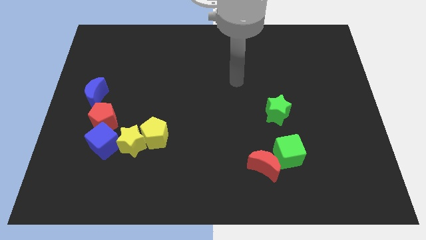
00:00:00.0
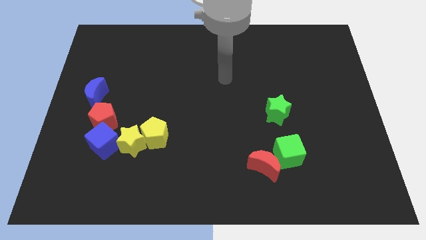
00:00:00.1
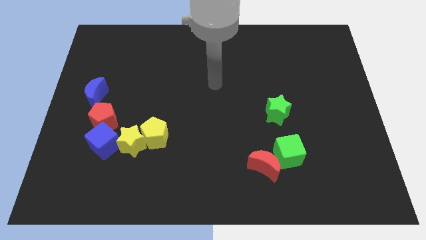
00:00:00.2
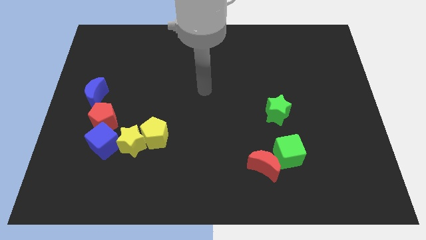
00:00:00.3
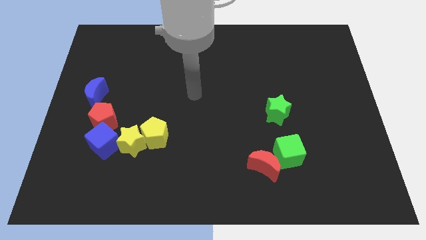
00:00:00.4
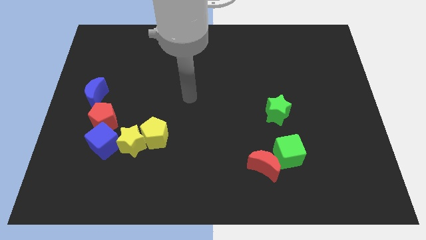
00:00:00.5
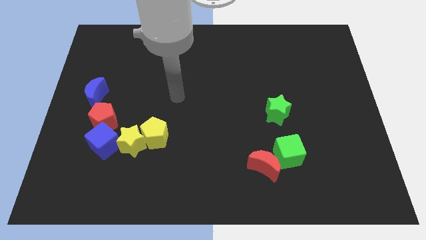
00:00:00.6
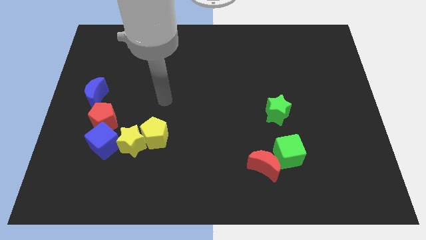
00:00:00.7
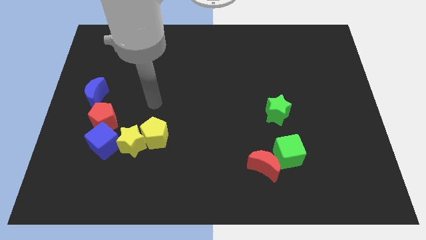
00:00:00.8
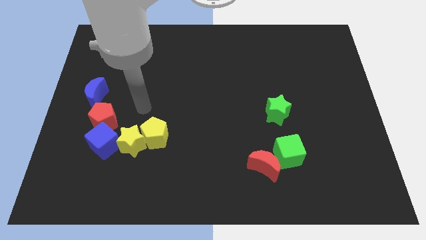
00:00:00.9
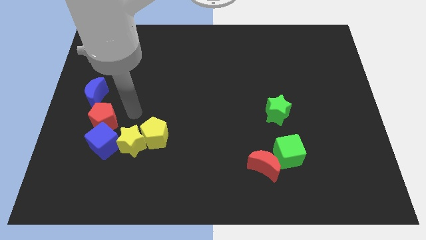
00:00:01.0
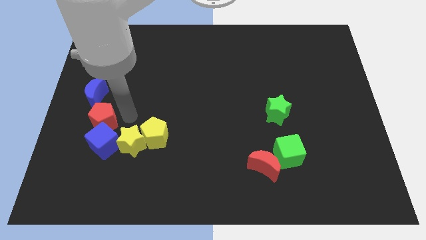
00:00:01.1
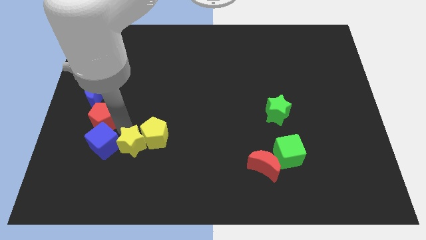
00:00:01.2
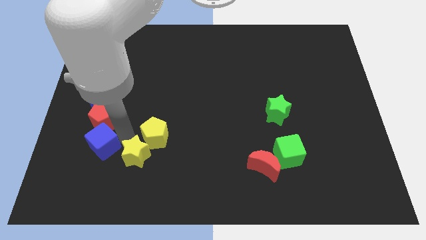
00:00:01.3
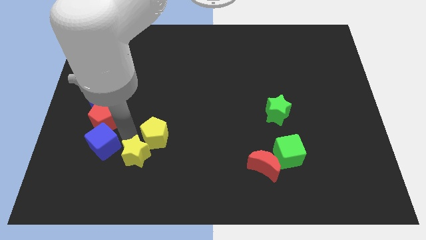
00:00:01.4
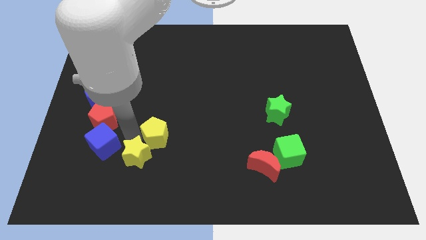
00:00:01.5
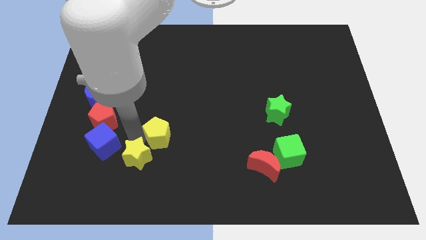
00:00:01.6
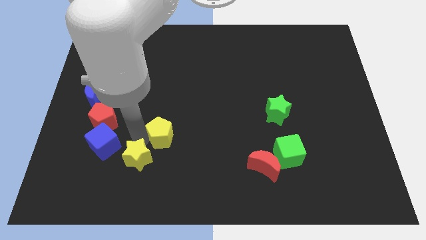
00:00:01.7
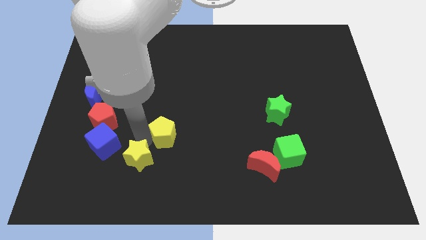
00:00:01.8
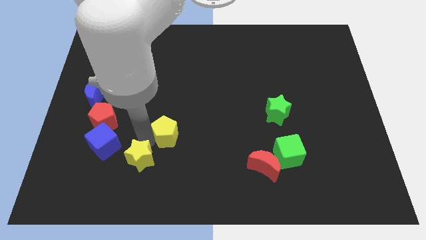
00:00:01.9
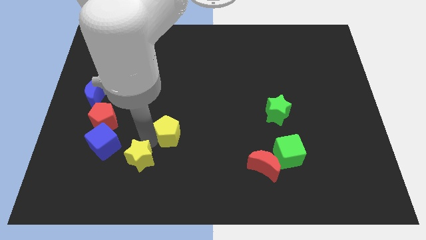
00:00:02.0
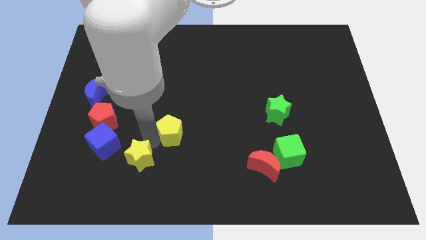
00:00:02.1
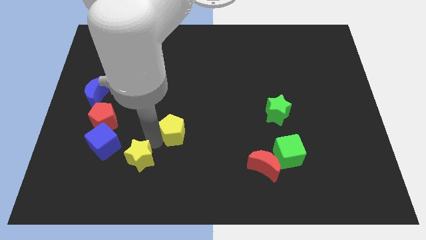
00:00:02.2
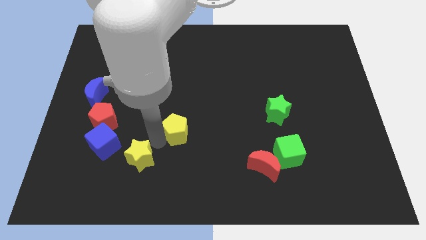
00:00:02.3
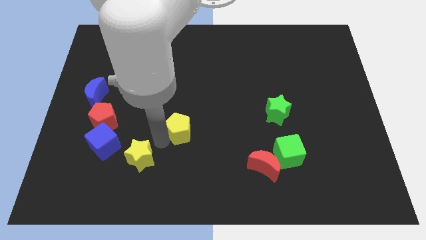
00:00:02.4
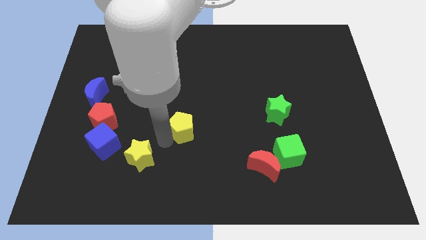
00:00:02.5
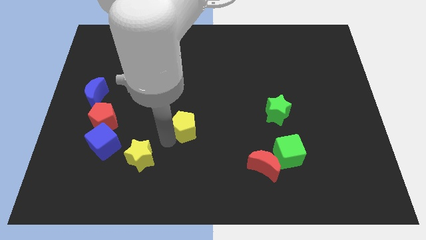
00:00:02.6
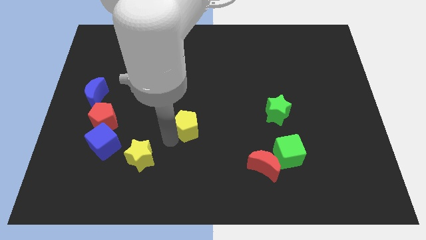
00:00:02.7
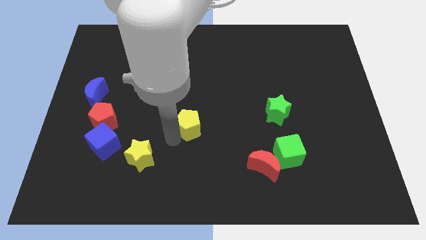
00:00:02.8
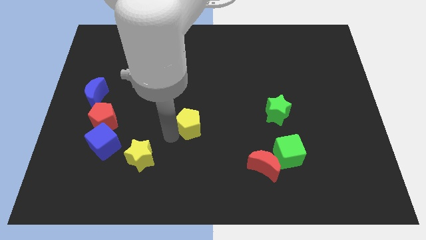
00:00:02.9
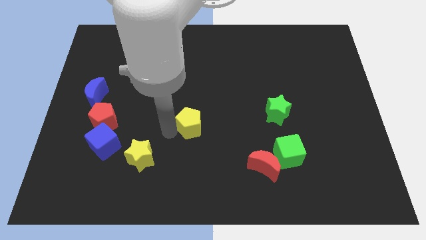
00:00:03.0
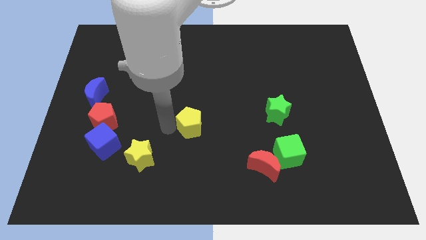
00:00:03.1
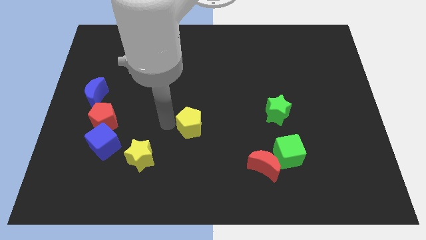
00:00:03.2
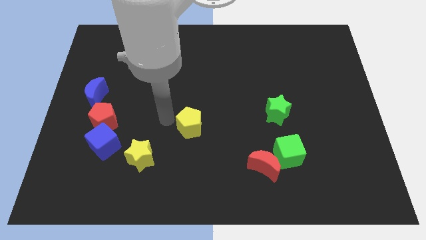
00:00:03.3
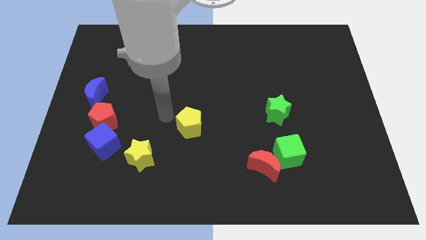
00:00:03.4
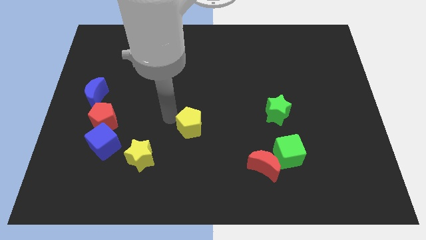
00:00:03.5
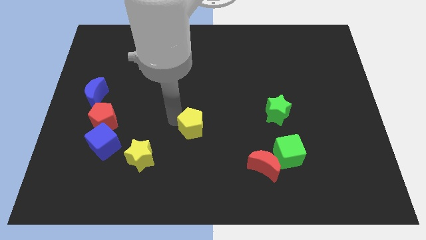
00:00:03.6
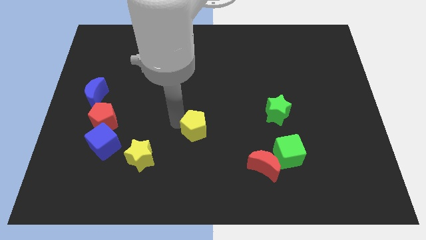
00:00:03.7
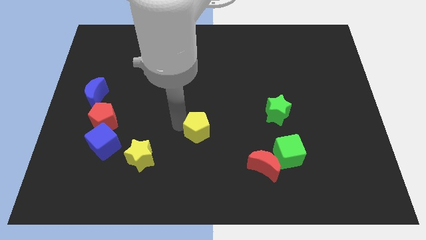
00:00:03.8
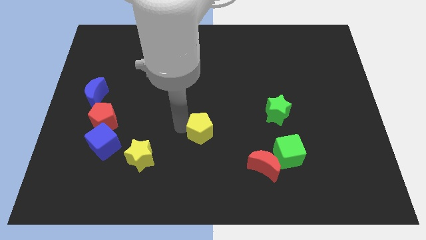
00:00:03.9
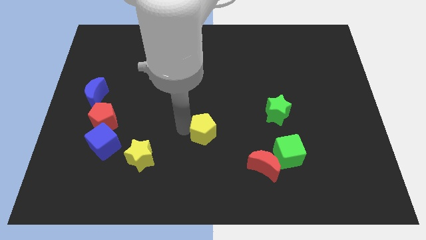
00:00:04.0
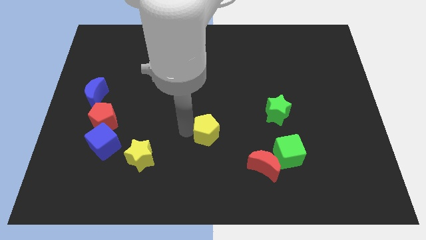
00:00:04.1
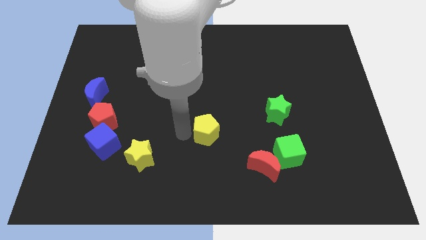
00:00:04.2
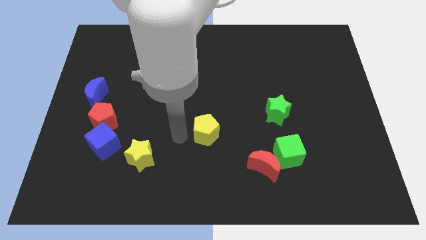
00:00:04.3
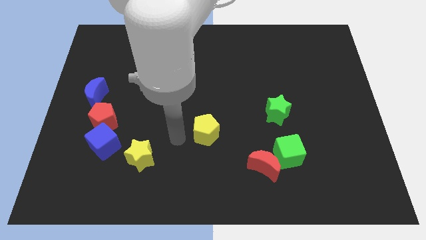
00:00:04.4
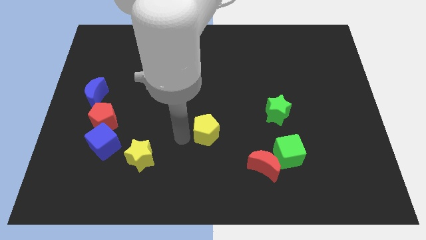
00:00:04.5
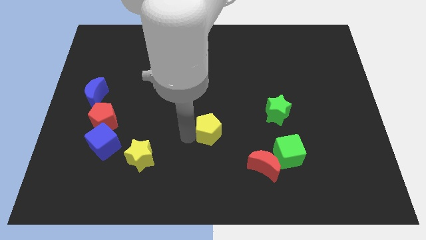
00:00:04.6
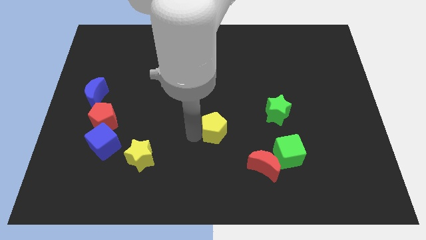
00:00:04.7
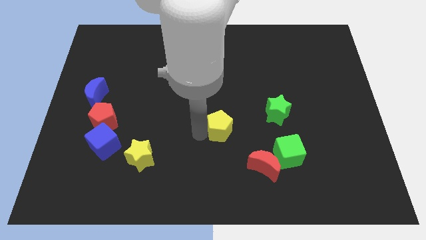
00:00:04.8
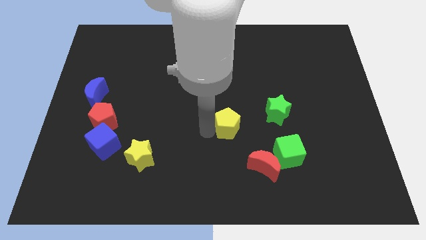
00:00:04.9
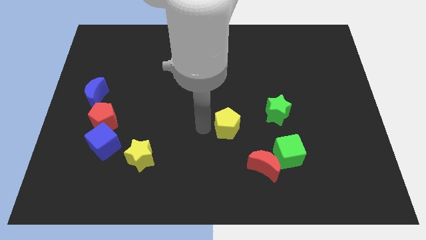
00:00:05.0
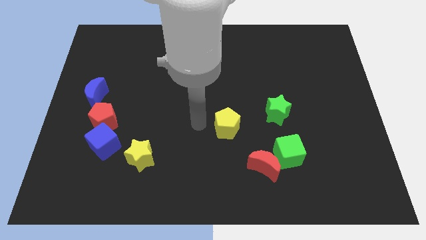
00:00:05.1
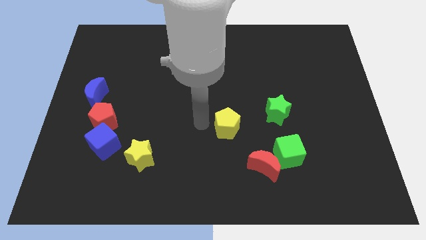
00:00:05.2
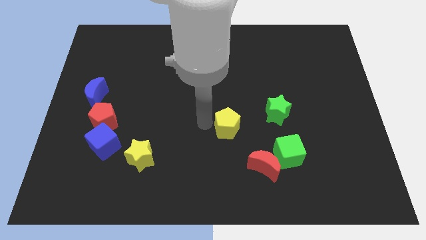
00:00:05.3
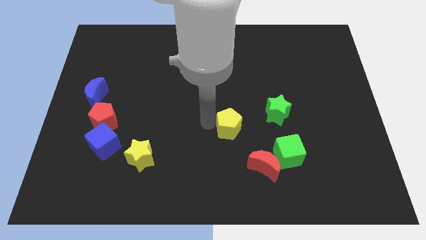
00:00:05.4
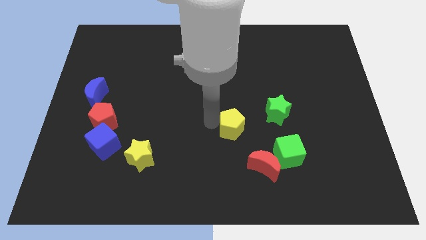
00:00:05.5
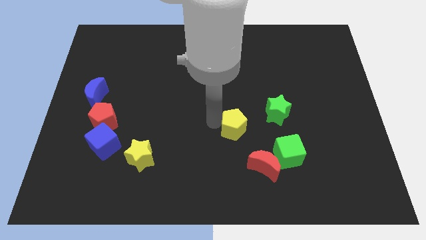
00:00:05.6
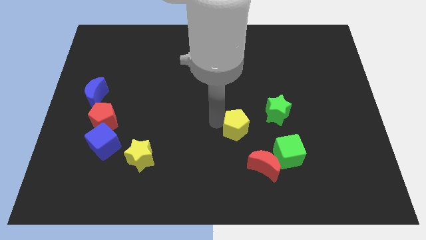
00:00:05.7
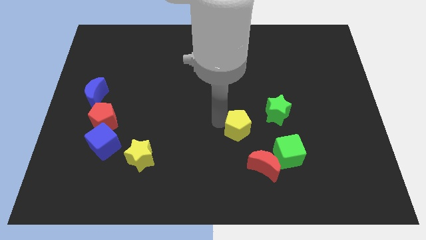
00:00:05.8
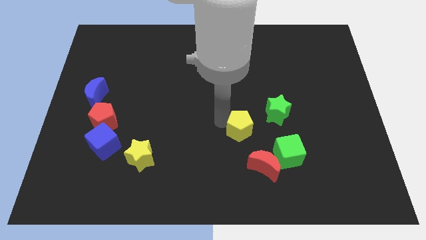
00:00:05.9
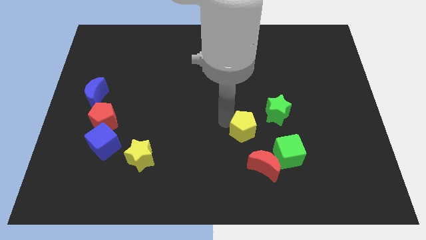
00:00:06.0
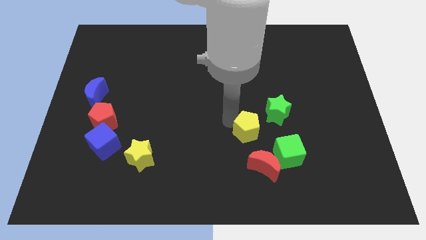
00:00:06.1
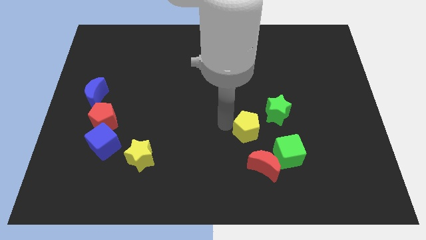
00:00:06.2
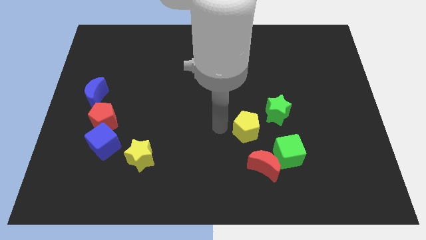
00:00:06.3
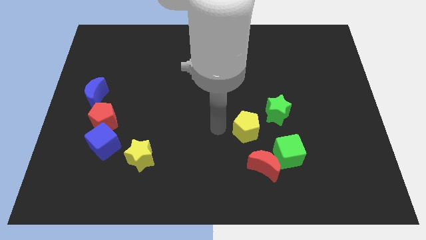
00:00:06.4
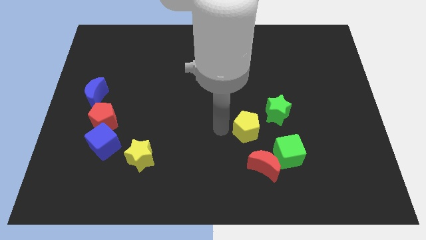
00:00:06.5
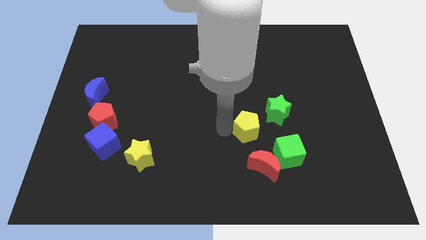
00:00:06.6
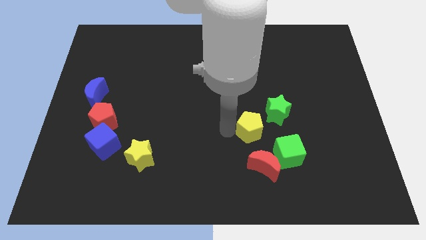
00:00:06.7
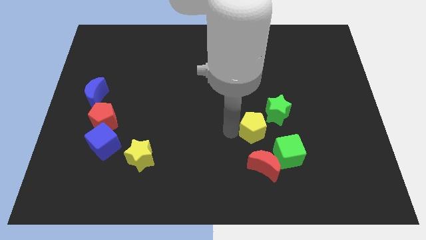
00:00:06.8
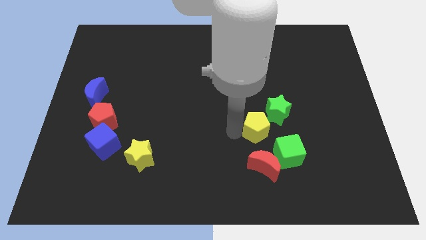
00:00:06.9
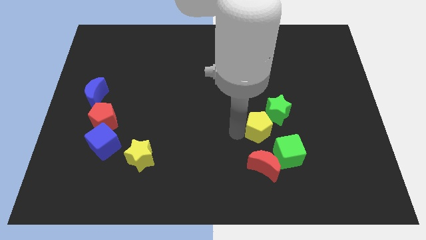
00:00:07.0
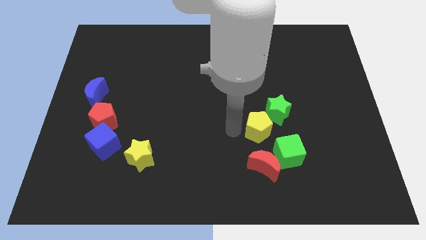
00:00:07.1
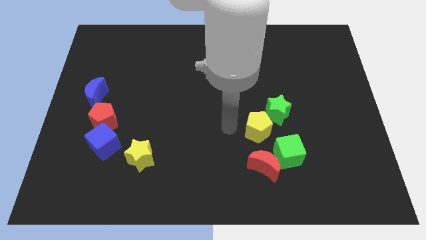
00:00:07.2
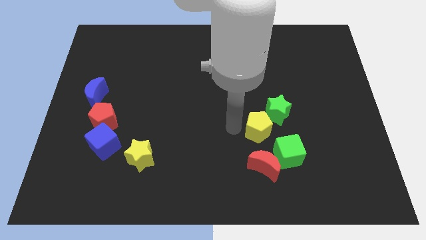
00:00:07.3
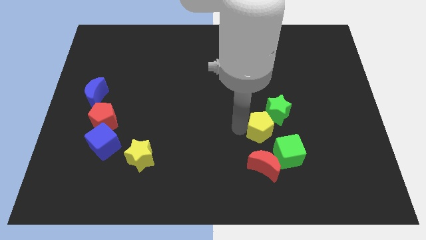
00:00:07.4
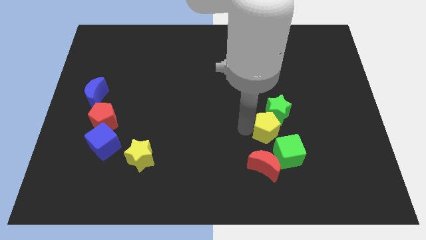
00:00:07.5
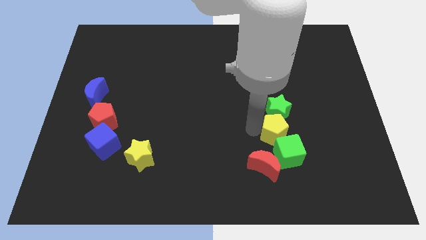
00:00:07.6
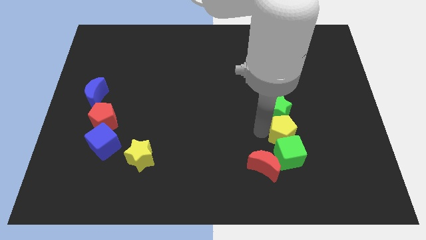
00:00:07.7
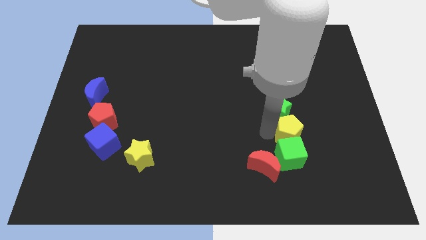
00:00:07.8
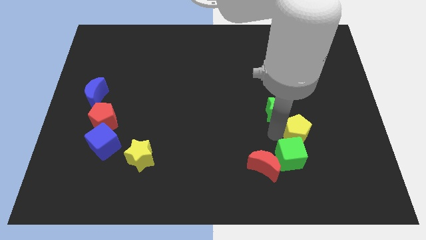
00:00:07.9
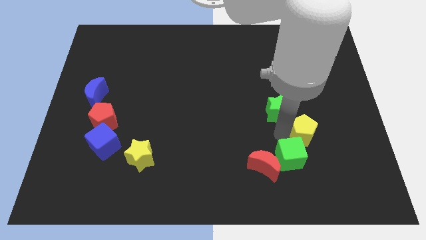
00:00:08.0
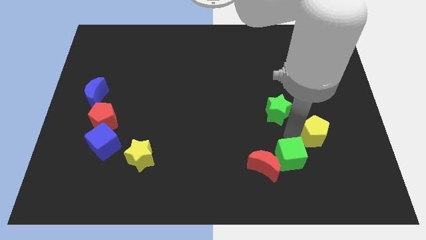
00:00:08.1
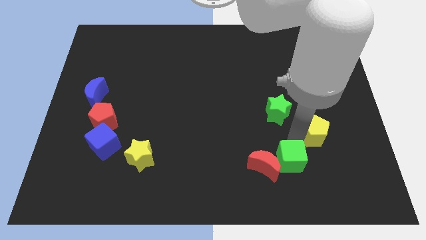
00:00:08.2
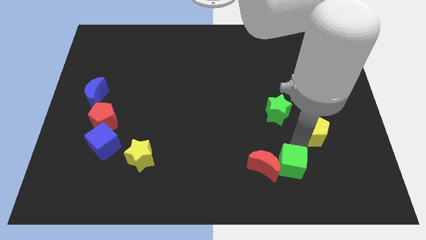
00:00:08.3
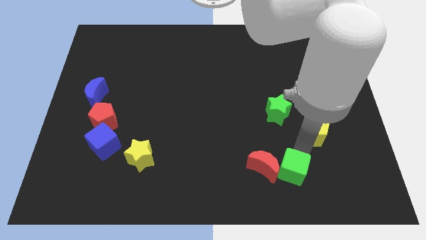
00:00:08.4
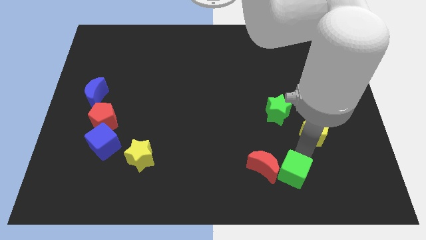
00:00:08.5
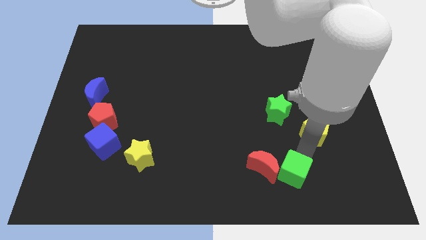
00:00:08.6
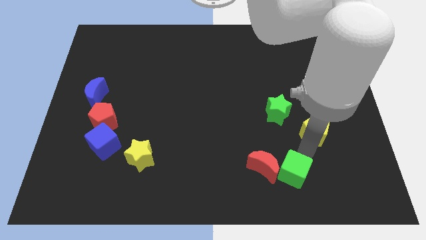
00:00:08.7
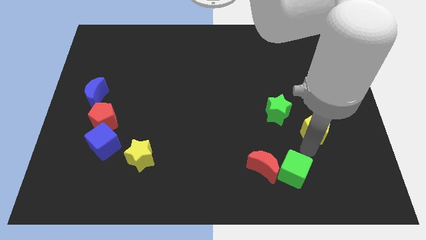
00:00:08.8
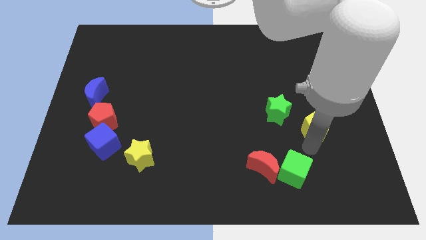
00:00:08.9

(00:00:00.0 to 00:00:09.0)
move the yellow pentagon to the right side of the green star
